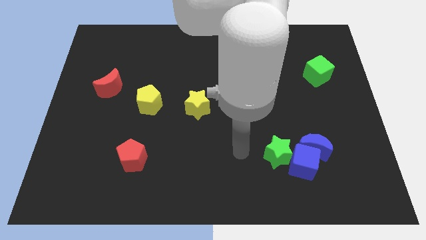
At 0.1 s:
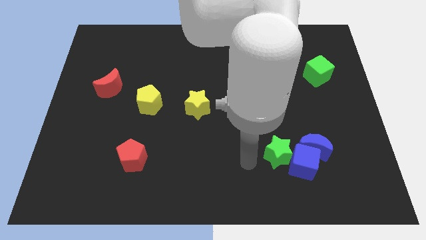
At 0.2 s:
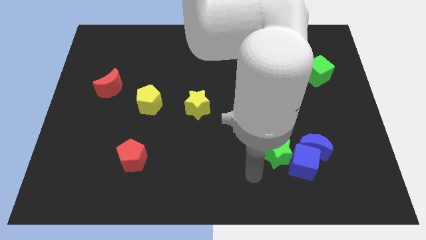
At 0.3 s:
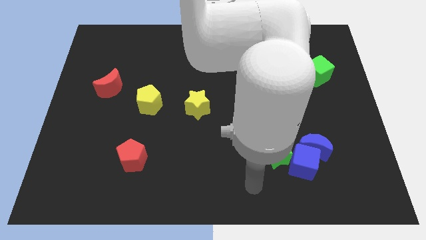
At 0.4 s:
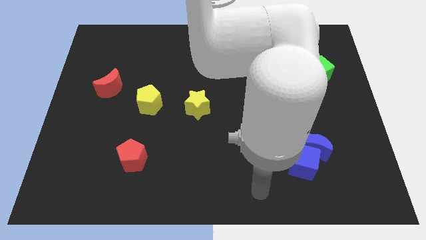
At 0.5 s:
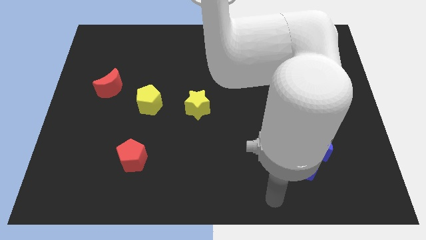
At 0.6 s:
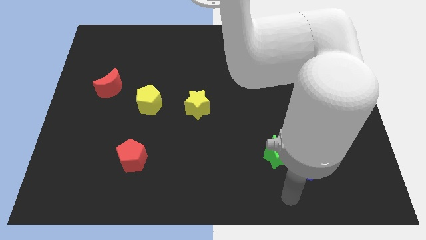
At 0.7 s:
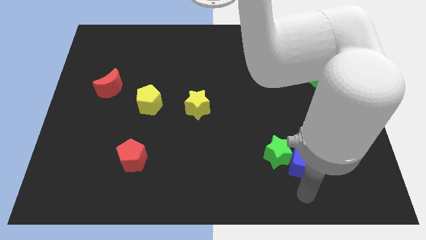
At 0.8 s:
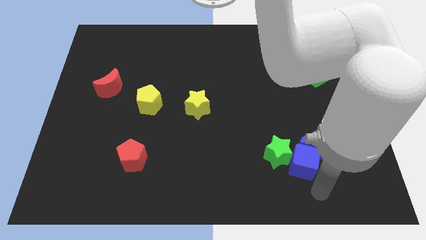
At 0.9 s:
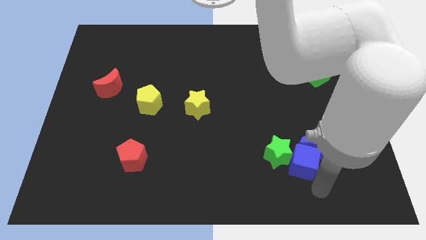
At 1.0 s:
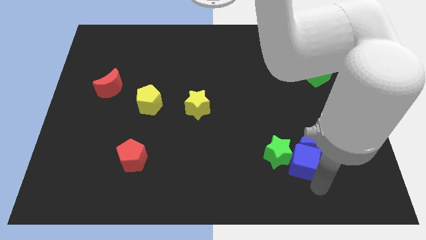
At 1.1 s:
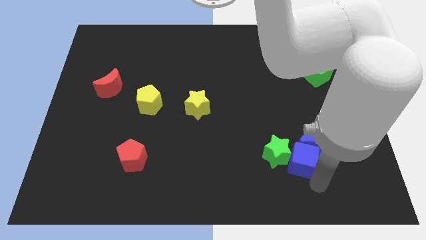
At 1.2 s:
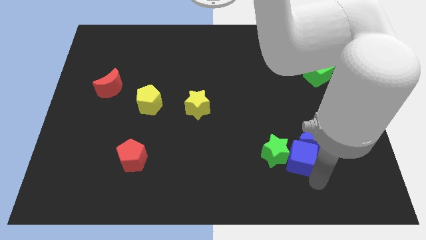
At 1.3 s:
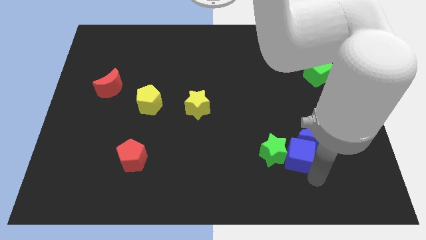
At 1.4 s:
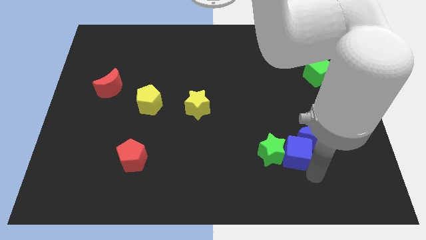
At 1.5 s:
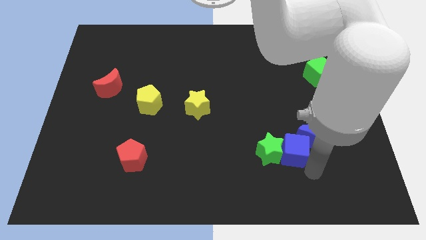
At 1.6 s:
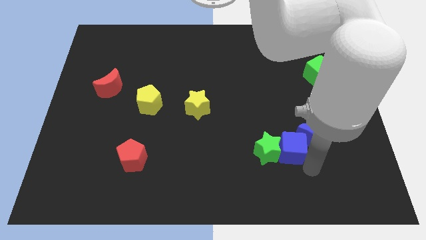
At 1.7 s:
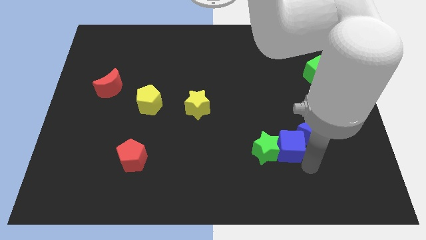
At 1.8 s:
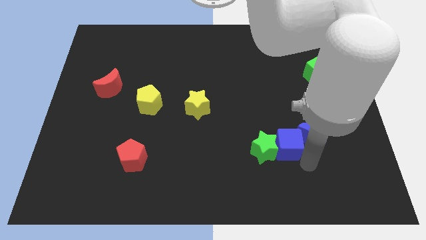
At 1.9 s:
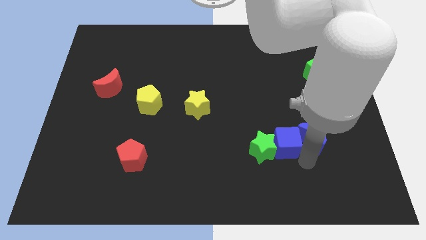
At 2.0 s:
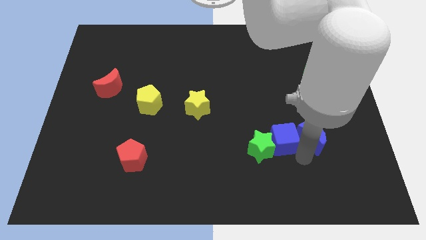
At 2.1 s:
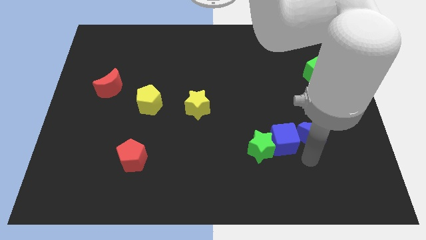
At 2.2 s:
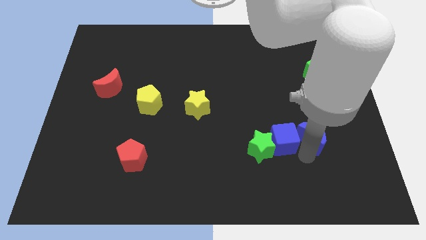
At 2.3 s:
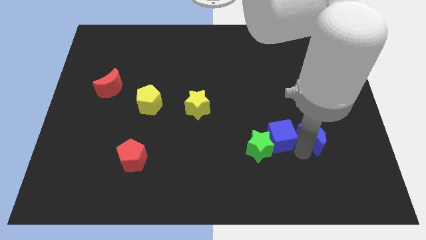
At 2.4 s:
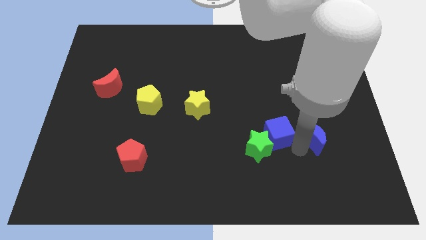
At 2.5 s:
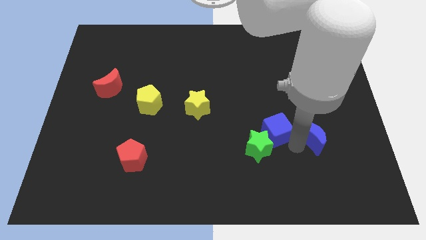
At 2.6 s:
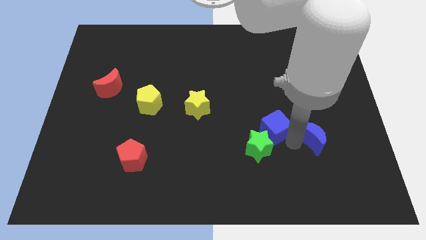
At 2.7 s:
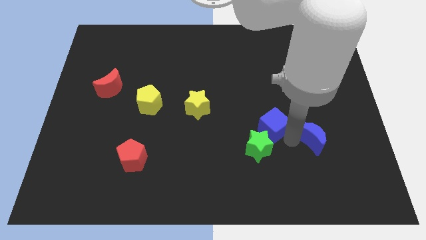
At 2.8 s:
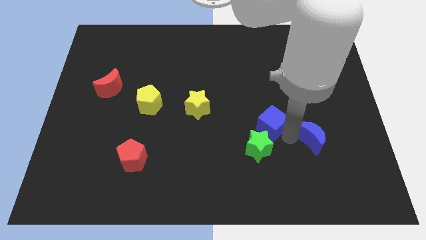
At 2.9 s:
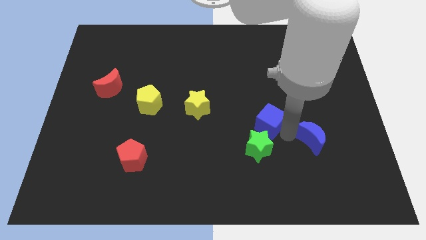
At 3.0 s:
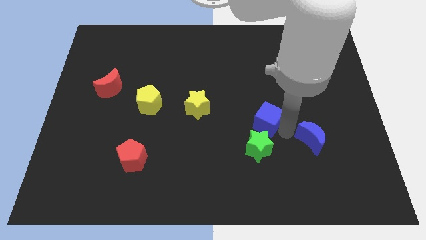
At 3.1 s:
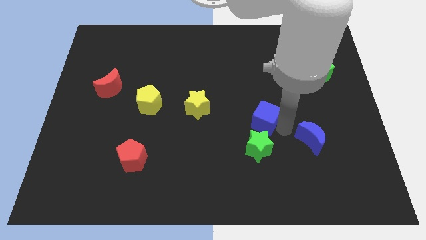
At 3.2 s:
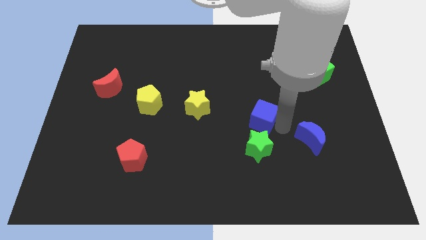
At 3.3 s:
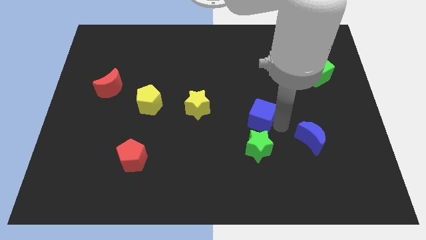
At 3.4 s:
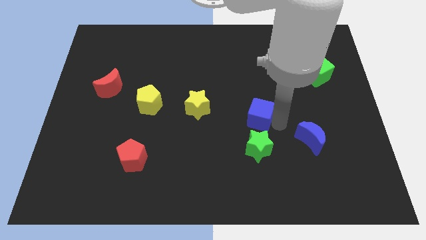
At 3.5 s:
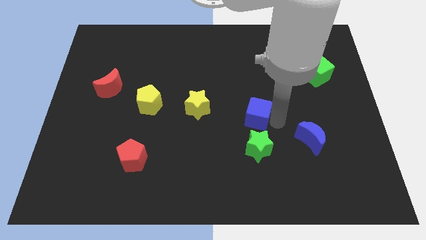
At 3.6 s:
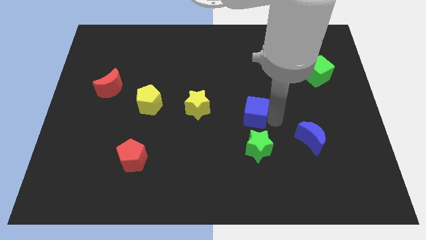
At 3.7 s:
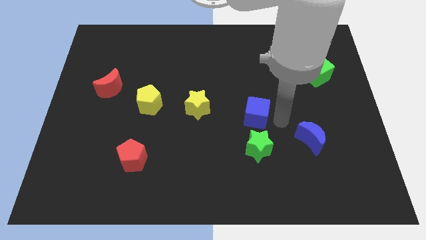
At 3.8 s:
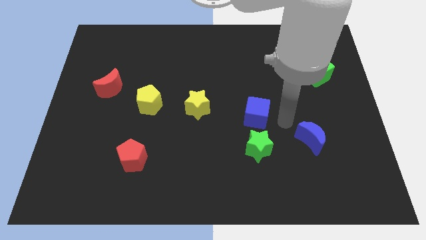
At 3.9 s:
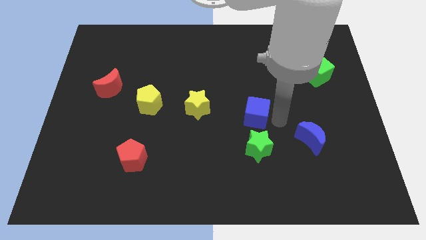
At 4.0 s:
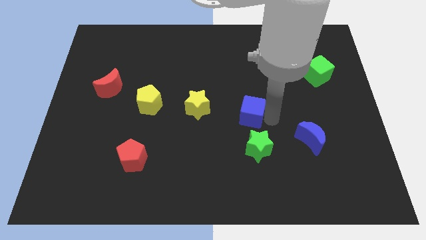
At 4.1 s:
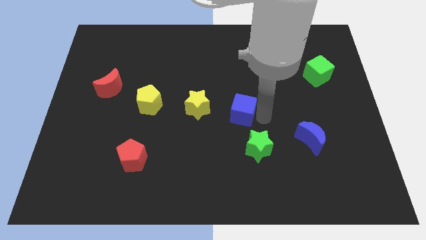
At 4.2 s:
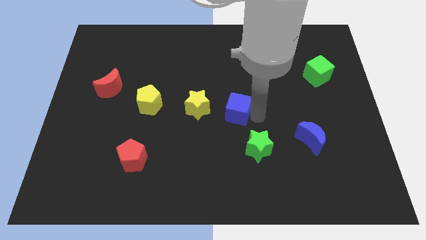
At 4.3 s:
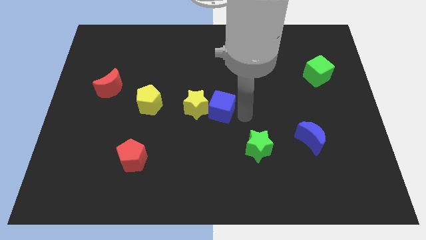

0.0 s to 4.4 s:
push the blue cube upwards and to the left

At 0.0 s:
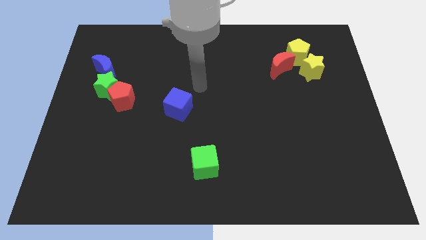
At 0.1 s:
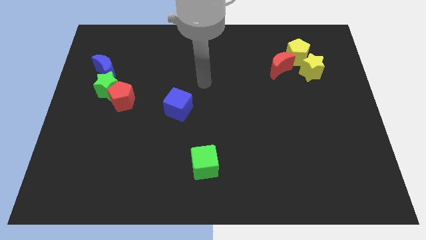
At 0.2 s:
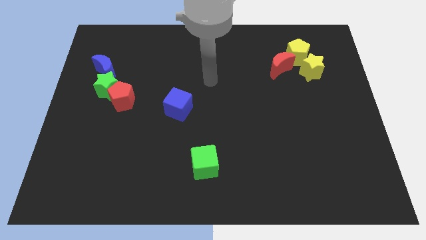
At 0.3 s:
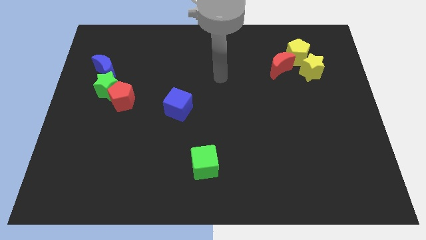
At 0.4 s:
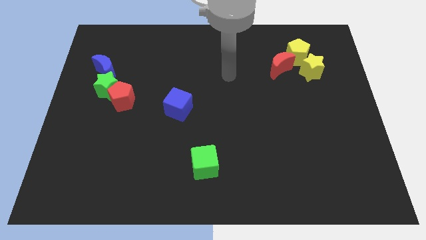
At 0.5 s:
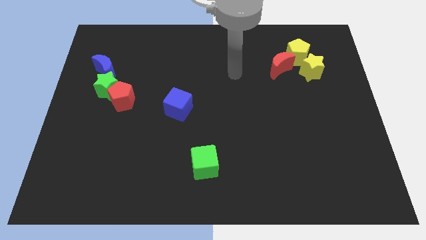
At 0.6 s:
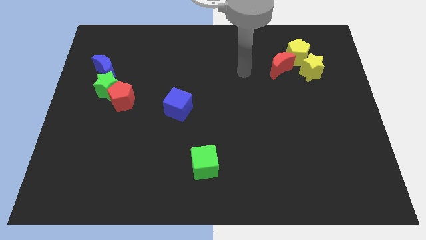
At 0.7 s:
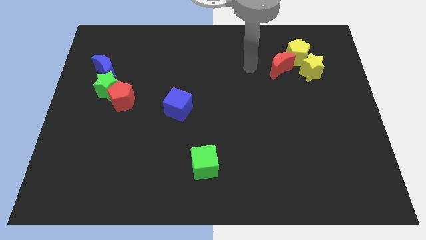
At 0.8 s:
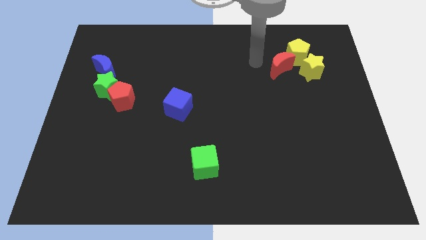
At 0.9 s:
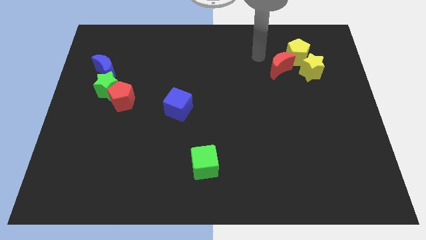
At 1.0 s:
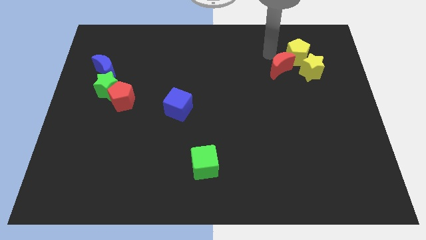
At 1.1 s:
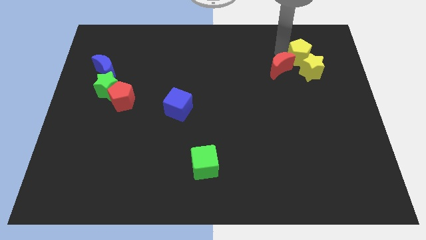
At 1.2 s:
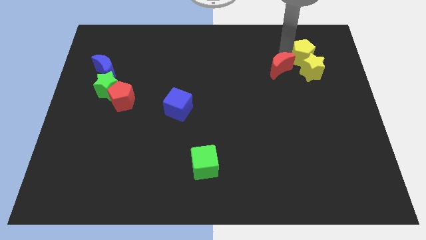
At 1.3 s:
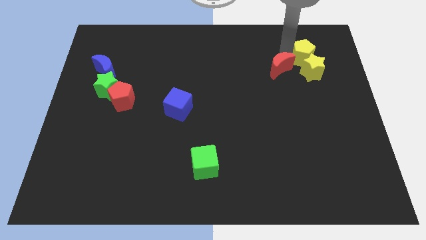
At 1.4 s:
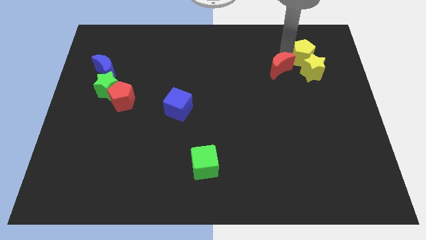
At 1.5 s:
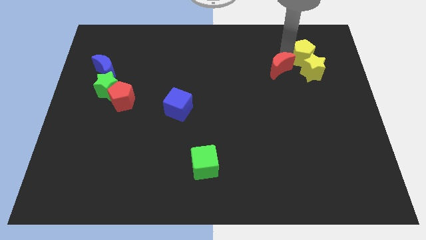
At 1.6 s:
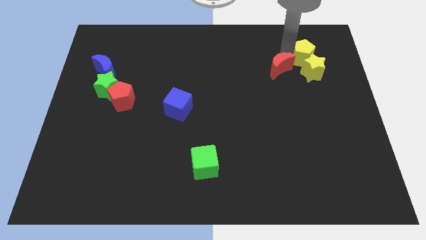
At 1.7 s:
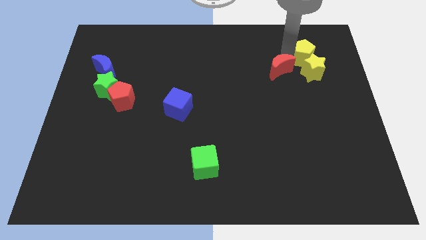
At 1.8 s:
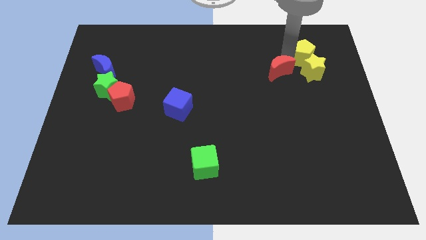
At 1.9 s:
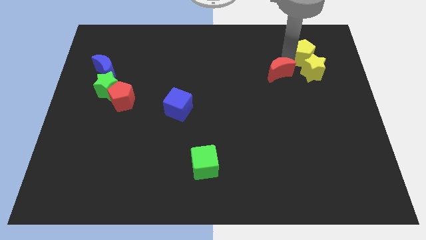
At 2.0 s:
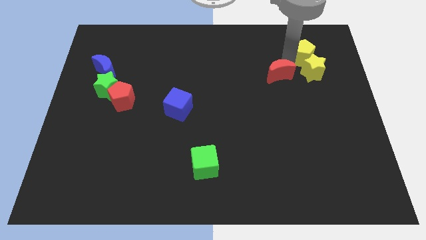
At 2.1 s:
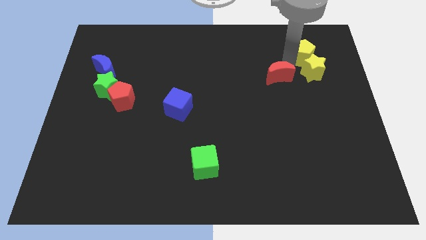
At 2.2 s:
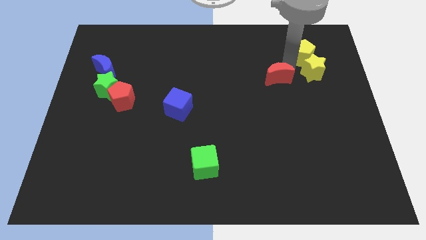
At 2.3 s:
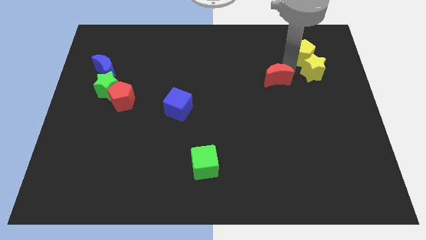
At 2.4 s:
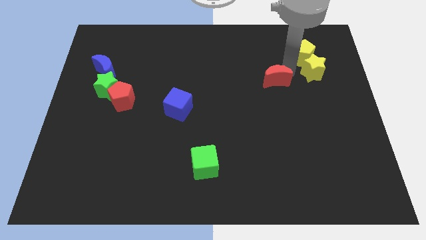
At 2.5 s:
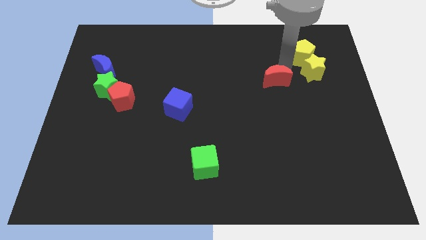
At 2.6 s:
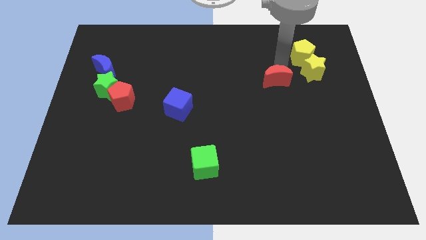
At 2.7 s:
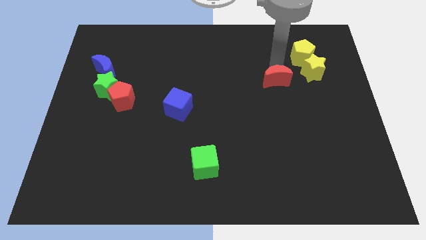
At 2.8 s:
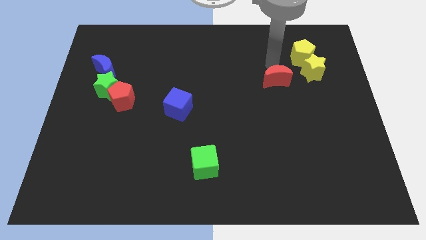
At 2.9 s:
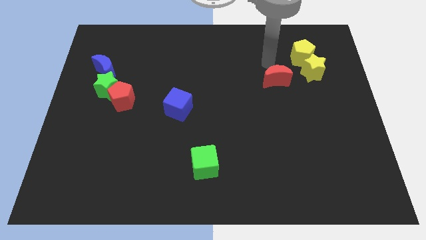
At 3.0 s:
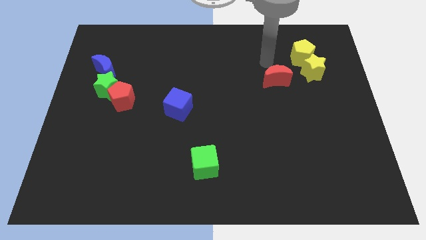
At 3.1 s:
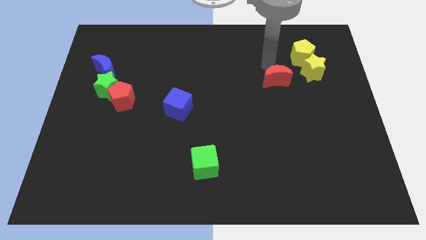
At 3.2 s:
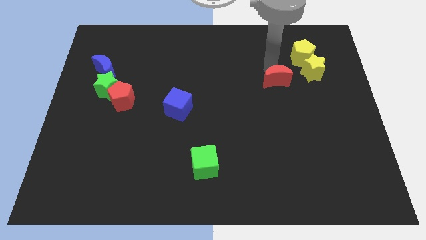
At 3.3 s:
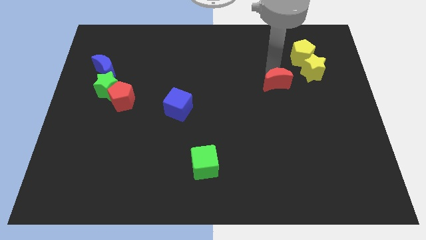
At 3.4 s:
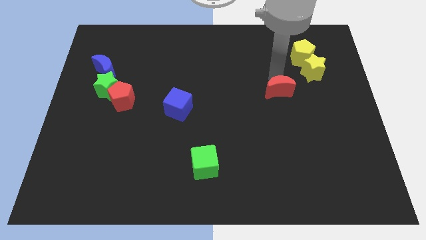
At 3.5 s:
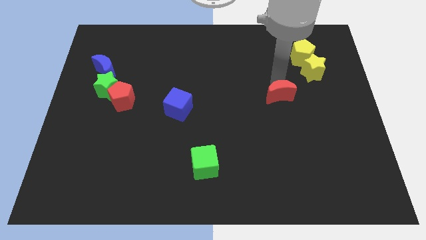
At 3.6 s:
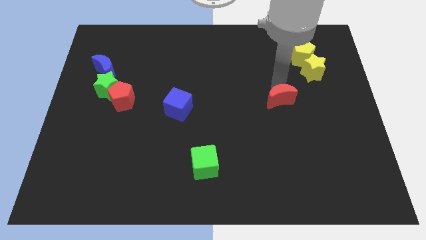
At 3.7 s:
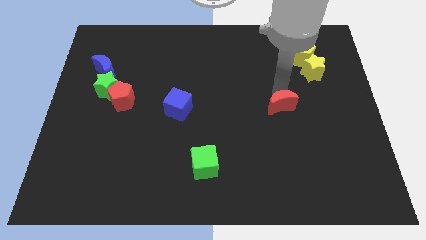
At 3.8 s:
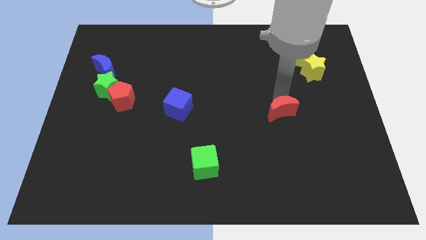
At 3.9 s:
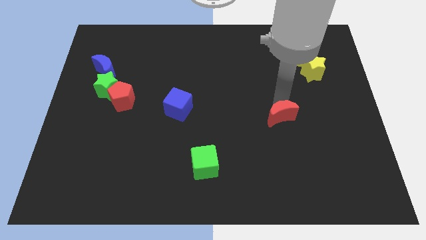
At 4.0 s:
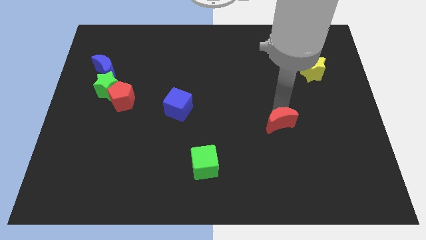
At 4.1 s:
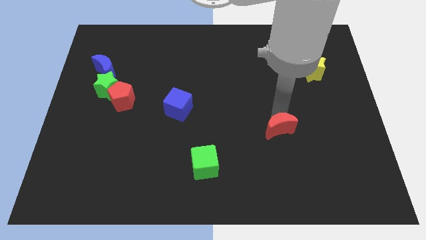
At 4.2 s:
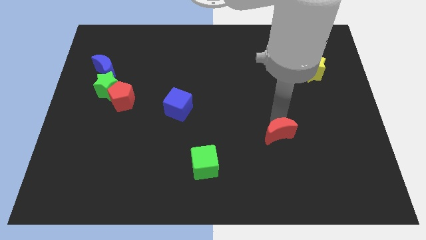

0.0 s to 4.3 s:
move the red moon down
